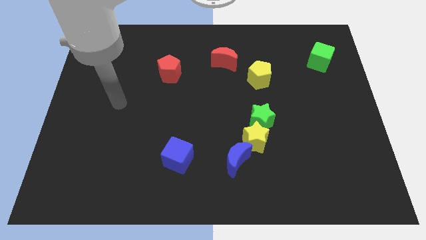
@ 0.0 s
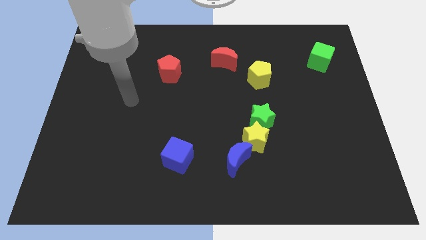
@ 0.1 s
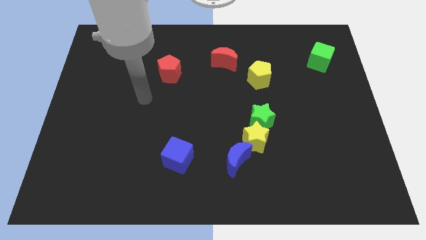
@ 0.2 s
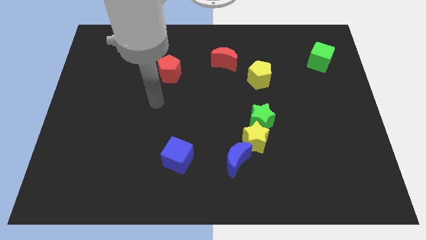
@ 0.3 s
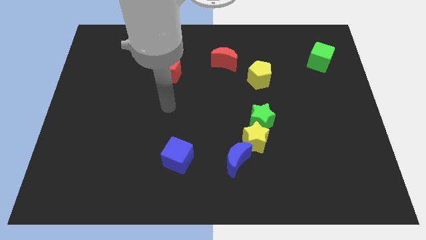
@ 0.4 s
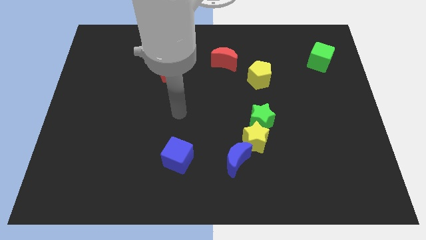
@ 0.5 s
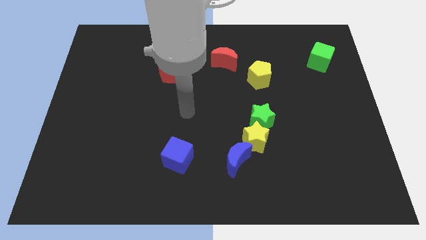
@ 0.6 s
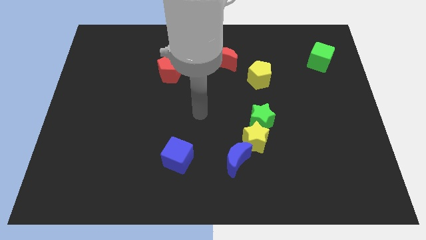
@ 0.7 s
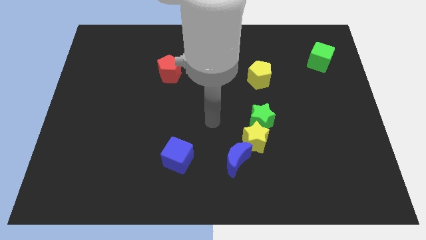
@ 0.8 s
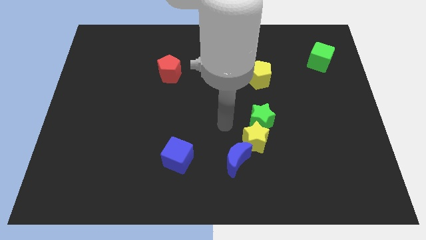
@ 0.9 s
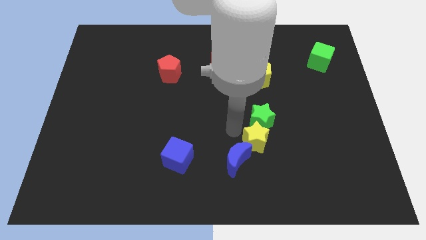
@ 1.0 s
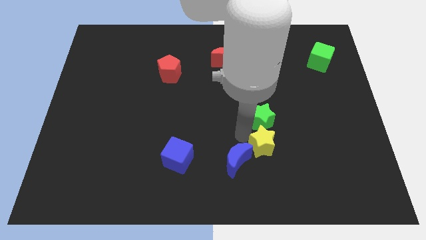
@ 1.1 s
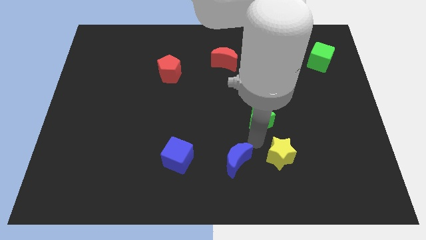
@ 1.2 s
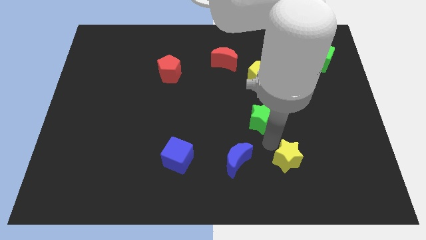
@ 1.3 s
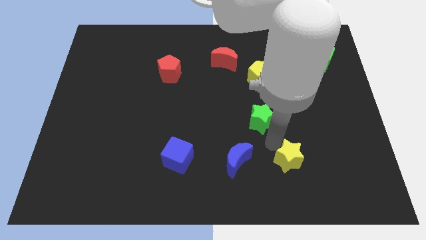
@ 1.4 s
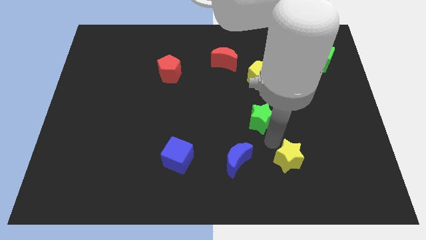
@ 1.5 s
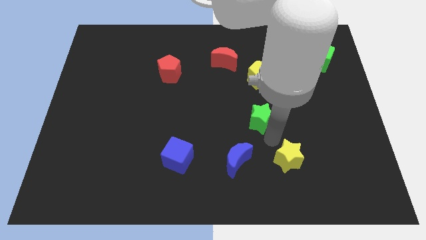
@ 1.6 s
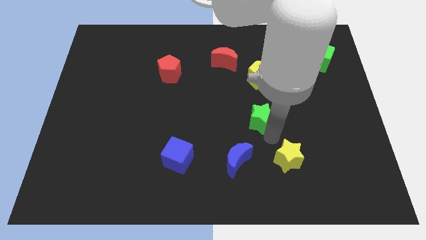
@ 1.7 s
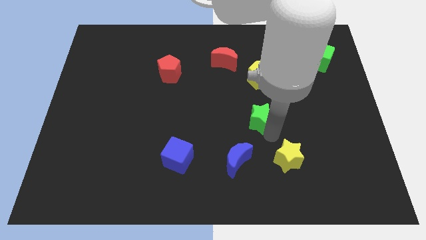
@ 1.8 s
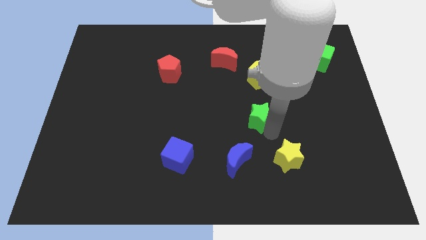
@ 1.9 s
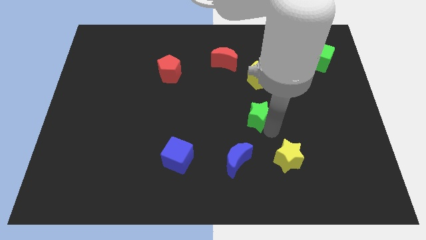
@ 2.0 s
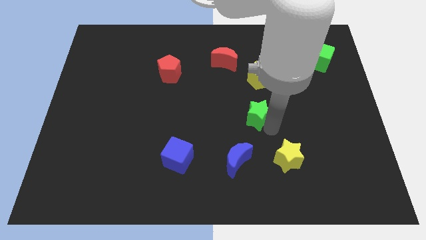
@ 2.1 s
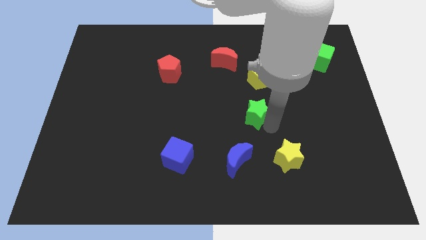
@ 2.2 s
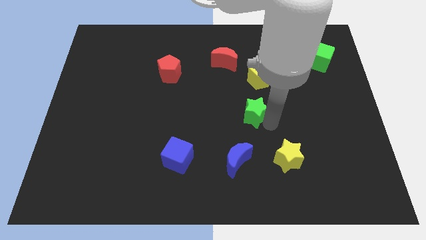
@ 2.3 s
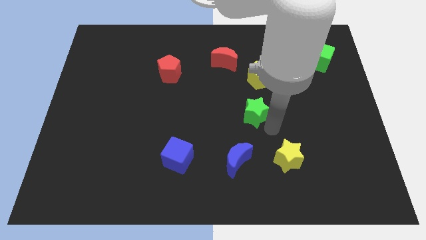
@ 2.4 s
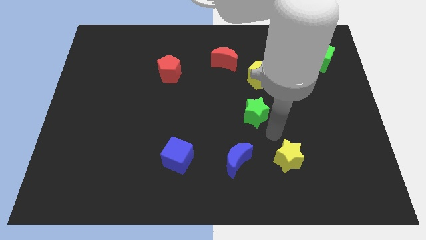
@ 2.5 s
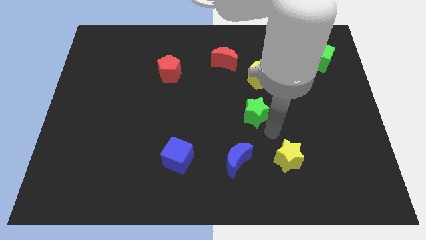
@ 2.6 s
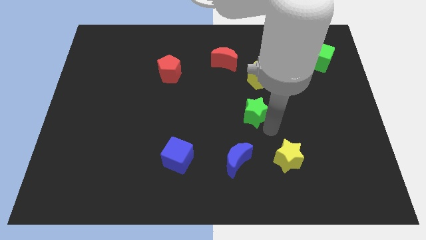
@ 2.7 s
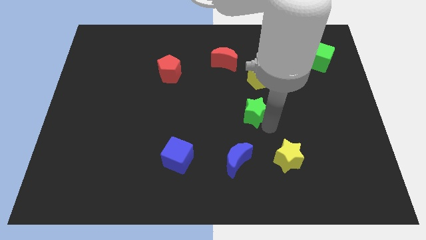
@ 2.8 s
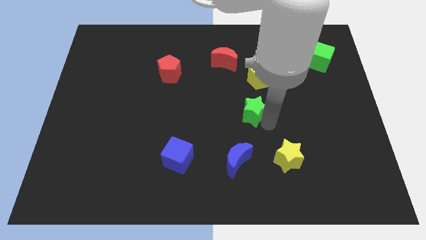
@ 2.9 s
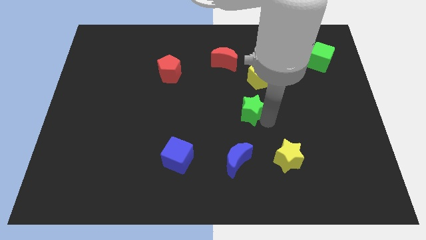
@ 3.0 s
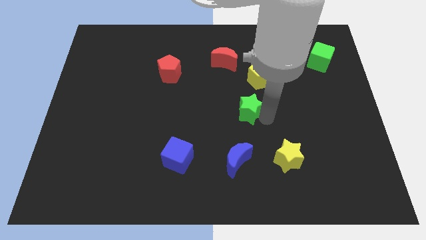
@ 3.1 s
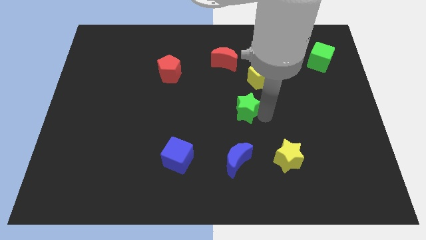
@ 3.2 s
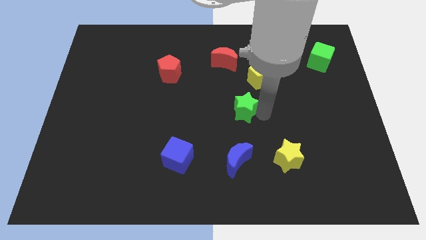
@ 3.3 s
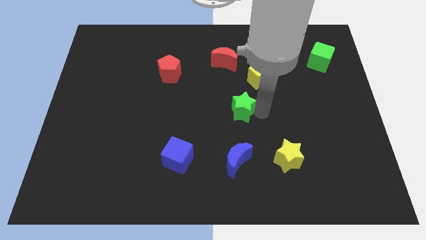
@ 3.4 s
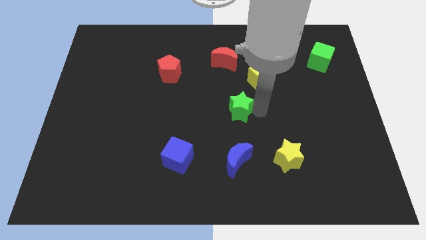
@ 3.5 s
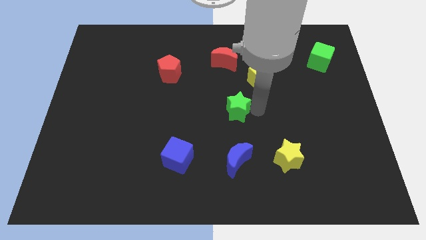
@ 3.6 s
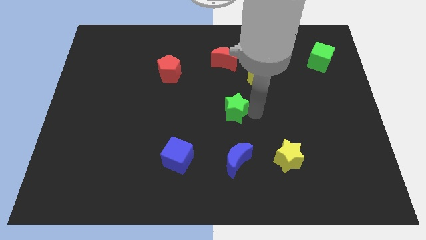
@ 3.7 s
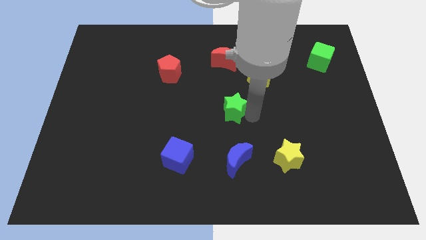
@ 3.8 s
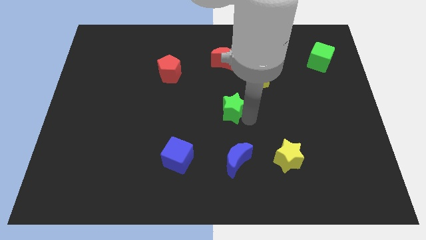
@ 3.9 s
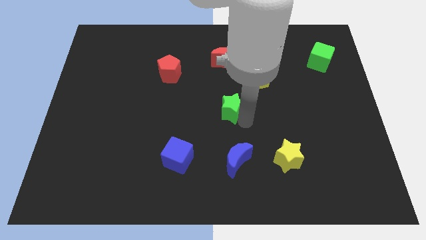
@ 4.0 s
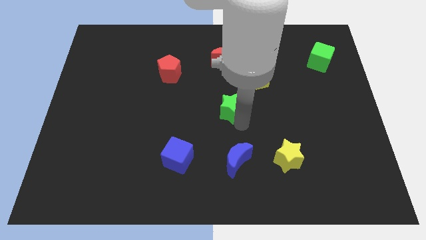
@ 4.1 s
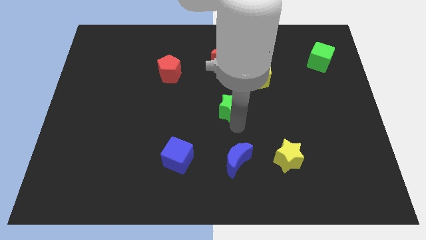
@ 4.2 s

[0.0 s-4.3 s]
slightly push the green star upwards and left diagonally

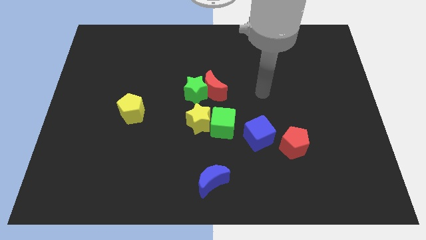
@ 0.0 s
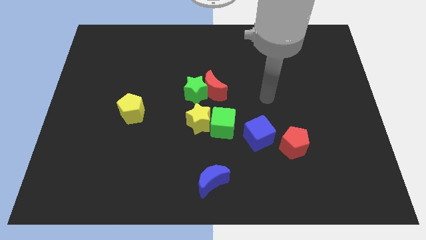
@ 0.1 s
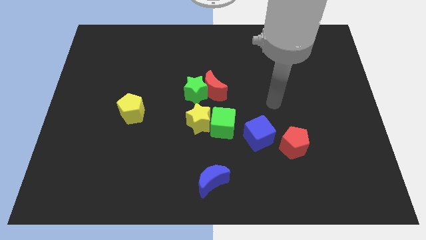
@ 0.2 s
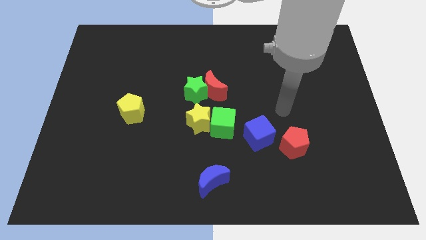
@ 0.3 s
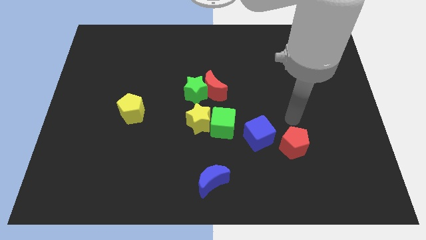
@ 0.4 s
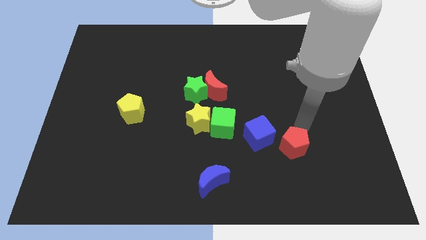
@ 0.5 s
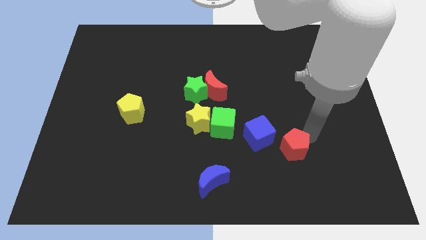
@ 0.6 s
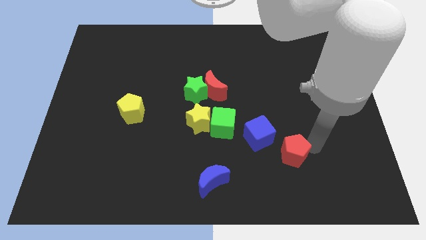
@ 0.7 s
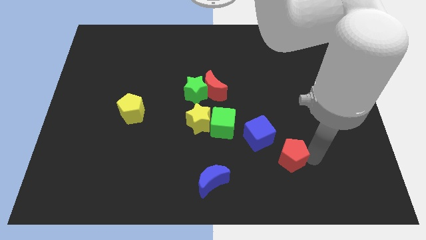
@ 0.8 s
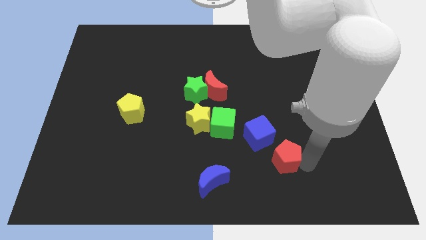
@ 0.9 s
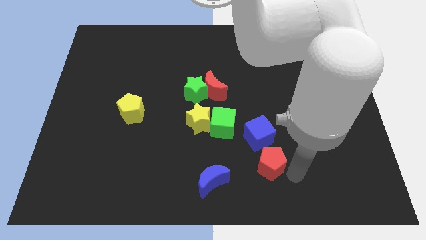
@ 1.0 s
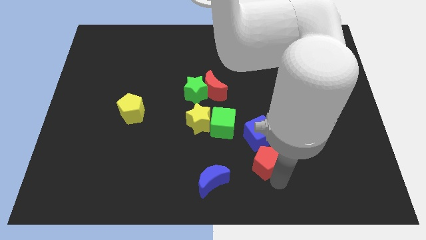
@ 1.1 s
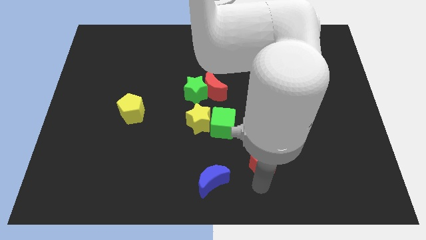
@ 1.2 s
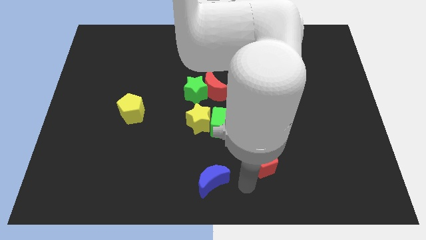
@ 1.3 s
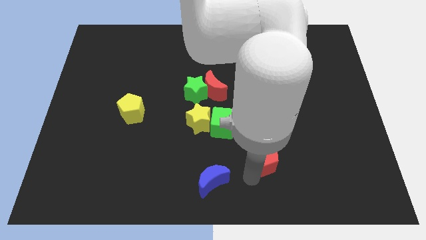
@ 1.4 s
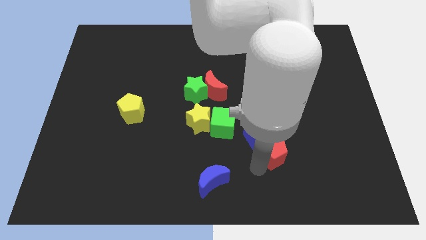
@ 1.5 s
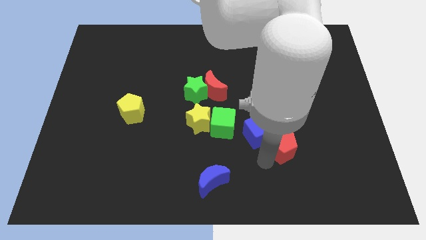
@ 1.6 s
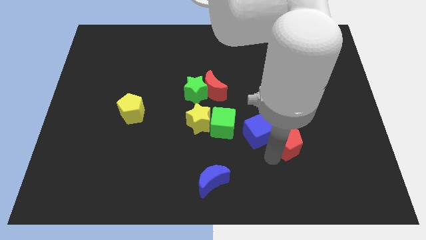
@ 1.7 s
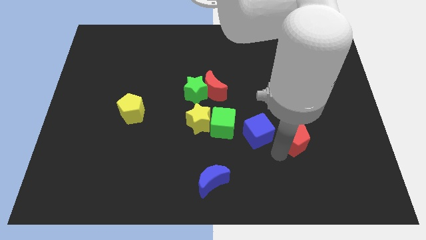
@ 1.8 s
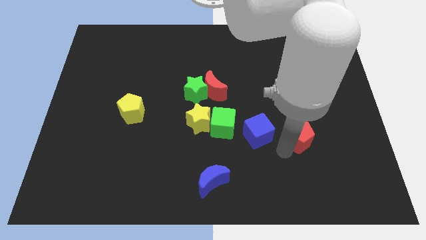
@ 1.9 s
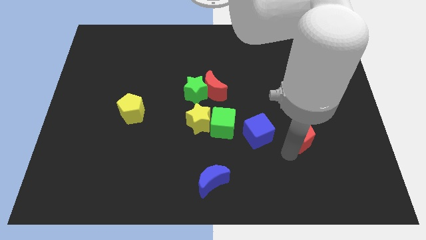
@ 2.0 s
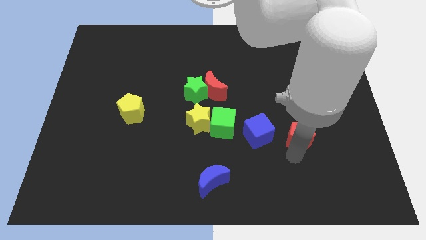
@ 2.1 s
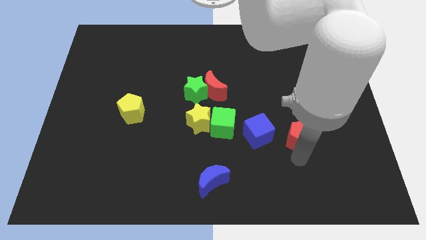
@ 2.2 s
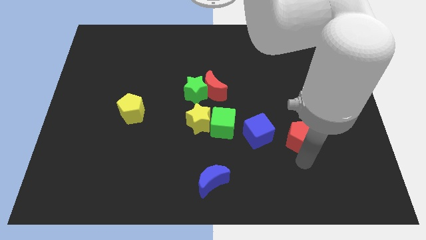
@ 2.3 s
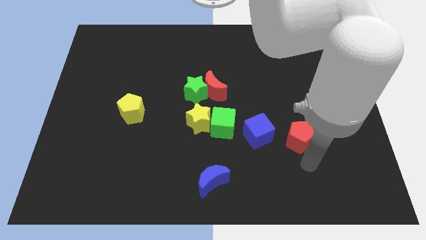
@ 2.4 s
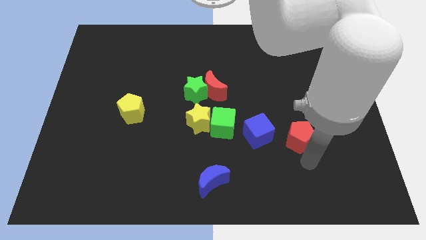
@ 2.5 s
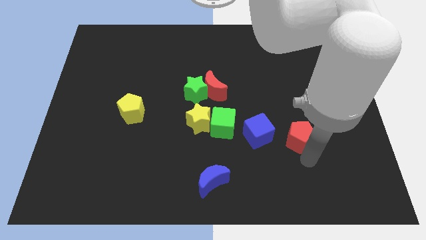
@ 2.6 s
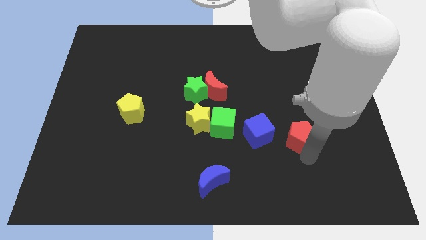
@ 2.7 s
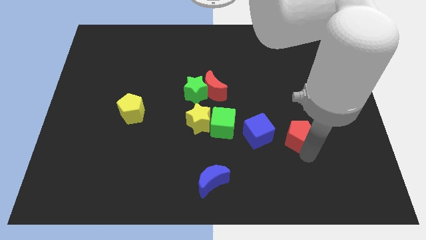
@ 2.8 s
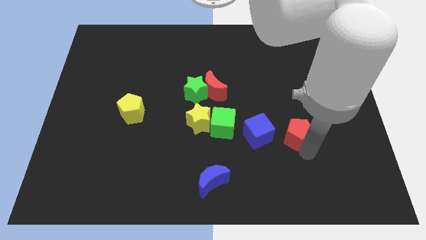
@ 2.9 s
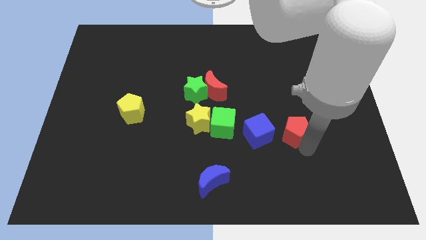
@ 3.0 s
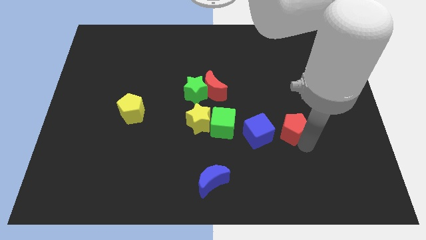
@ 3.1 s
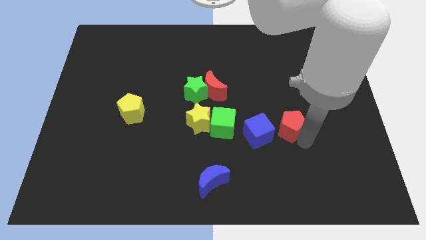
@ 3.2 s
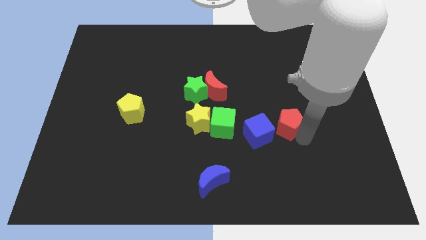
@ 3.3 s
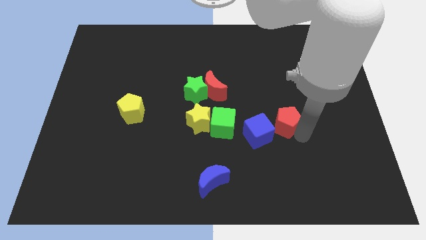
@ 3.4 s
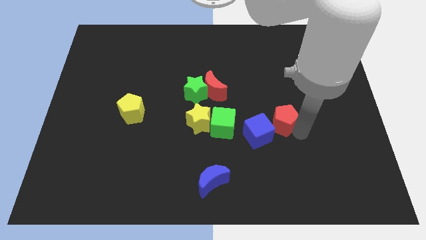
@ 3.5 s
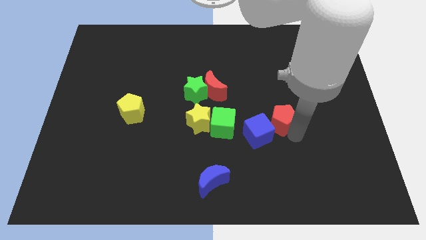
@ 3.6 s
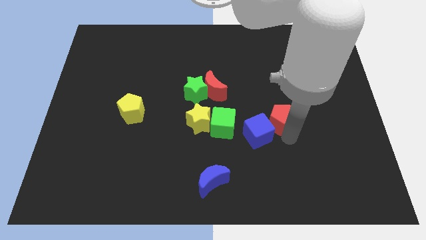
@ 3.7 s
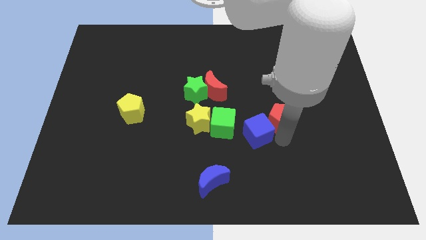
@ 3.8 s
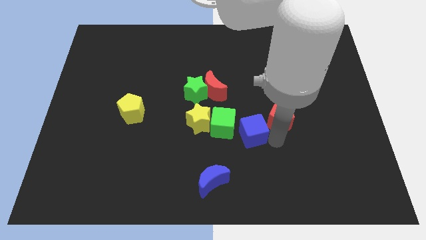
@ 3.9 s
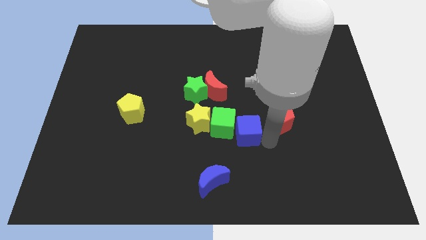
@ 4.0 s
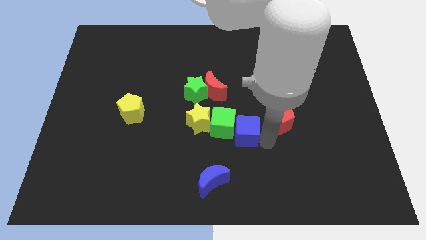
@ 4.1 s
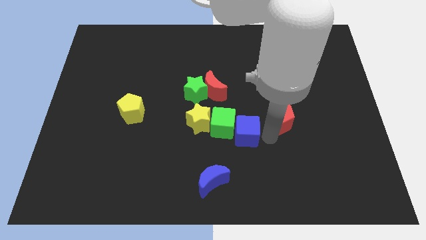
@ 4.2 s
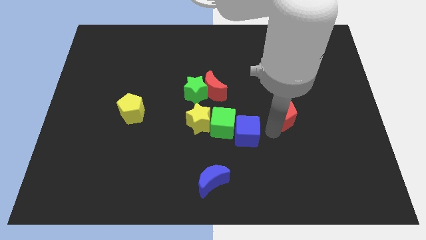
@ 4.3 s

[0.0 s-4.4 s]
move the red pentagon a bit up
